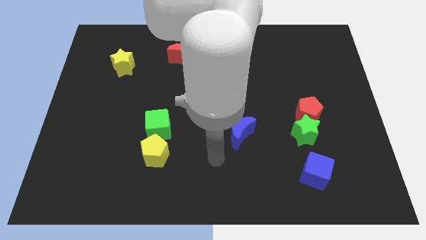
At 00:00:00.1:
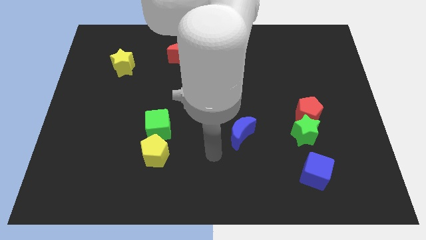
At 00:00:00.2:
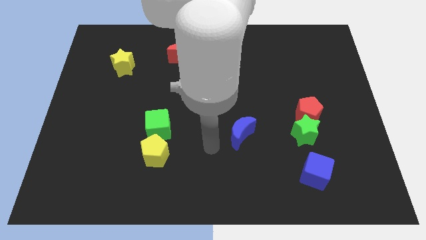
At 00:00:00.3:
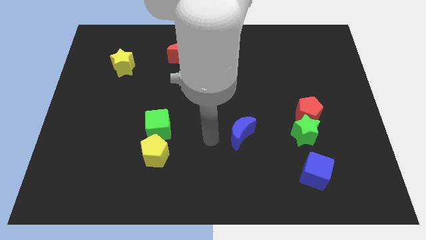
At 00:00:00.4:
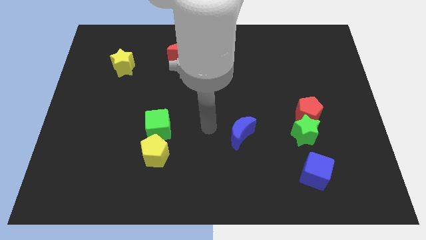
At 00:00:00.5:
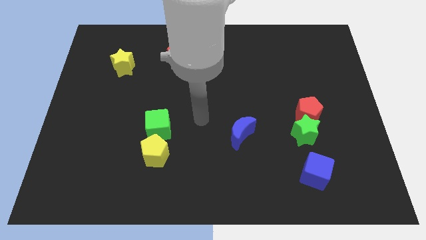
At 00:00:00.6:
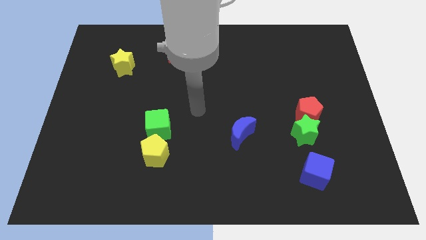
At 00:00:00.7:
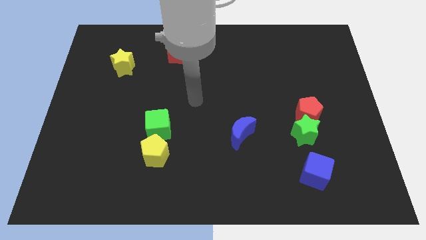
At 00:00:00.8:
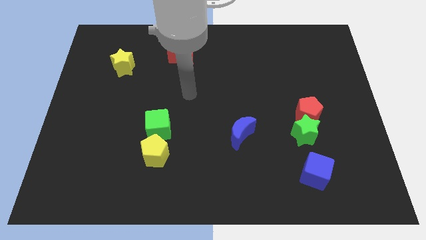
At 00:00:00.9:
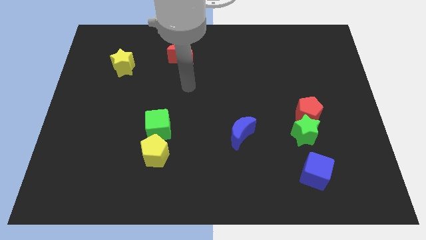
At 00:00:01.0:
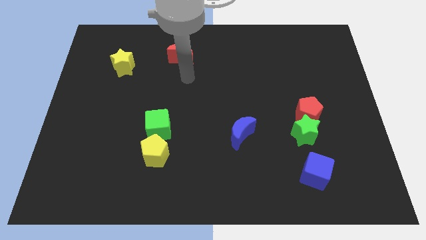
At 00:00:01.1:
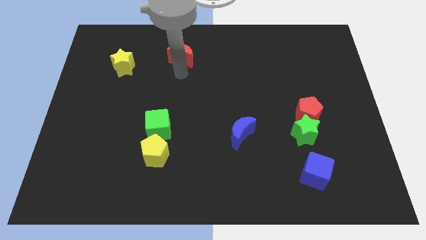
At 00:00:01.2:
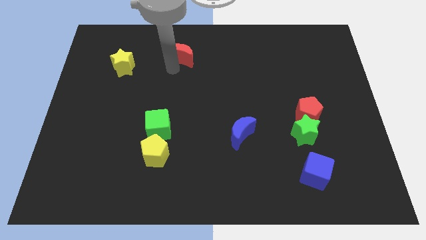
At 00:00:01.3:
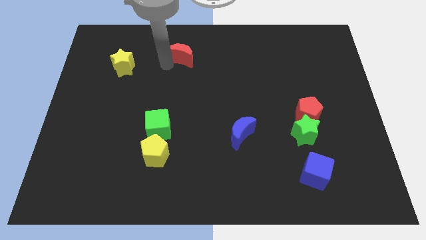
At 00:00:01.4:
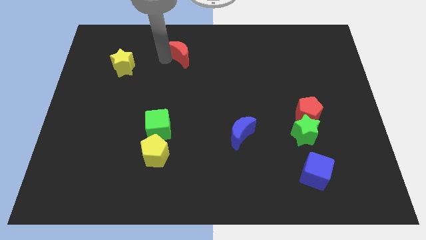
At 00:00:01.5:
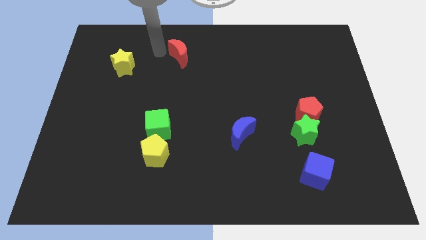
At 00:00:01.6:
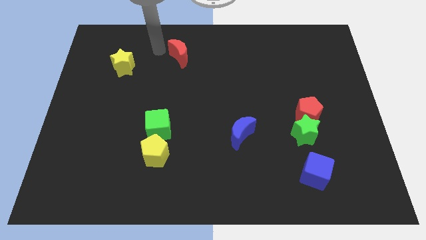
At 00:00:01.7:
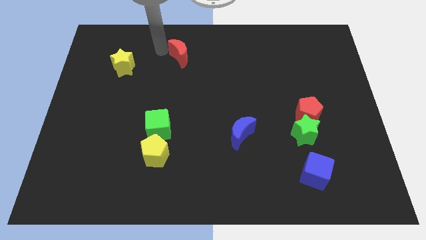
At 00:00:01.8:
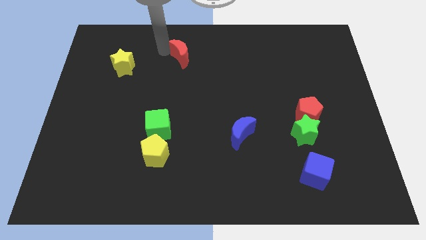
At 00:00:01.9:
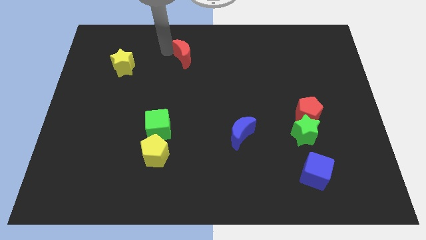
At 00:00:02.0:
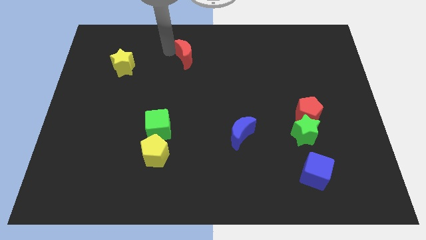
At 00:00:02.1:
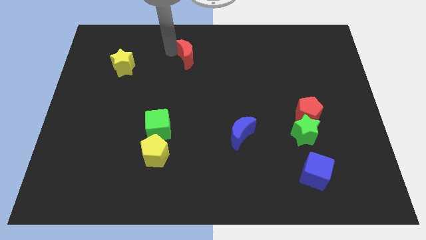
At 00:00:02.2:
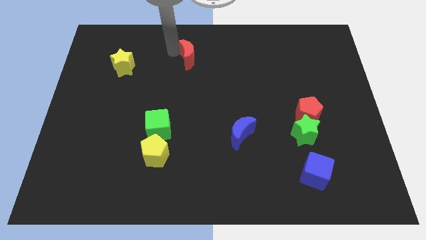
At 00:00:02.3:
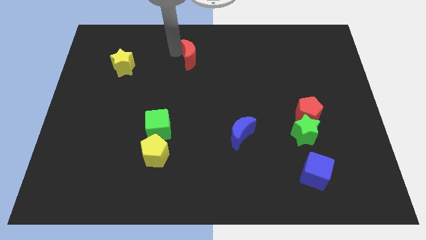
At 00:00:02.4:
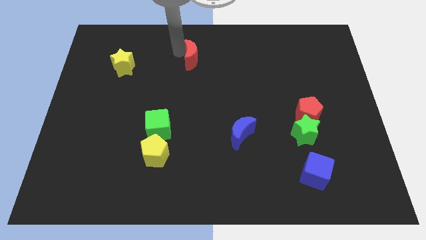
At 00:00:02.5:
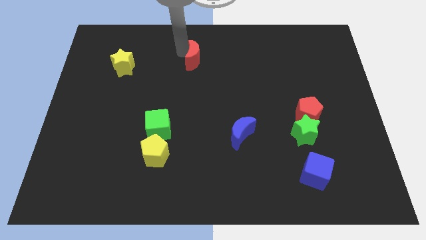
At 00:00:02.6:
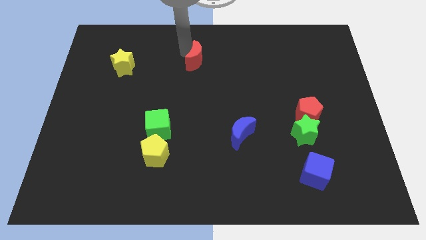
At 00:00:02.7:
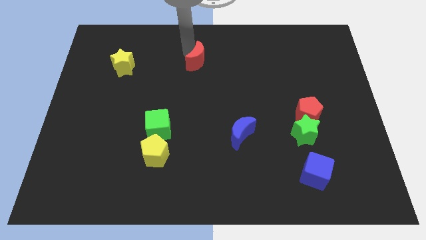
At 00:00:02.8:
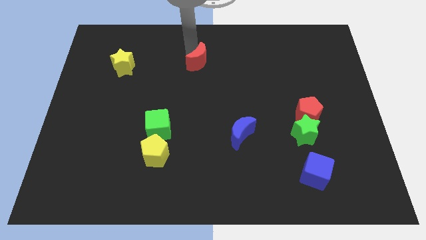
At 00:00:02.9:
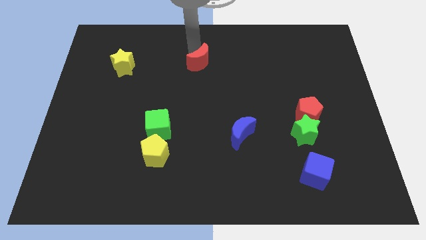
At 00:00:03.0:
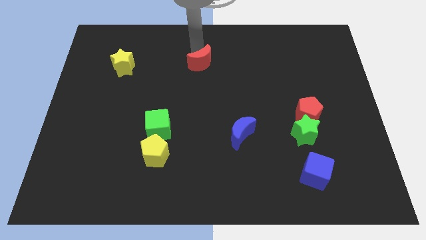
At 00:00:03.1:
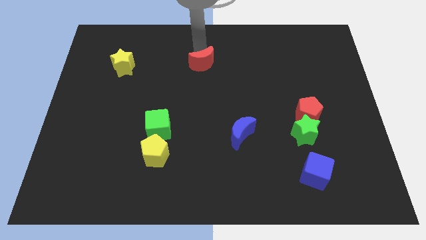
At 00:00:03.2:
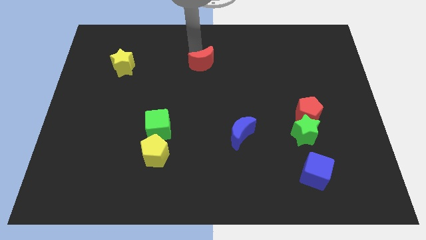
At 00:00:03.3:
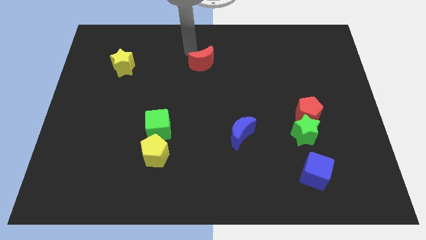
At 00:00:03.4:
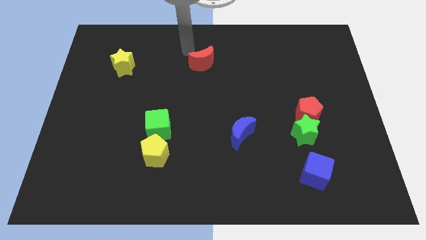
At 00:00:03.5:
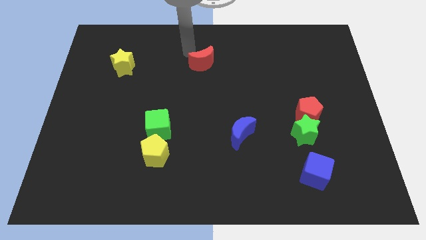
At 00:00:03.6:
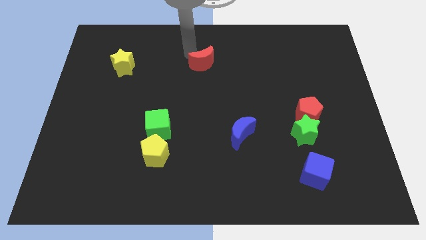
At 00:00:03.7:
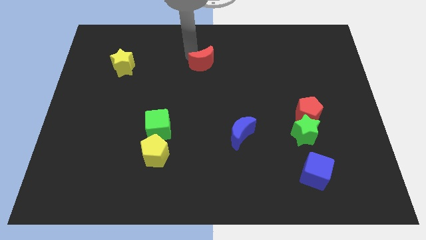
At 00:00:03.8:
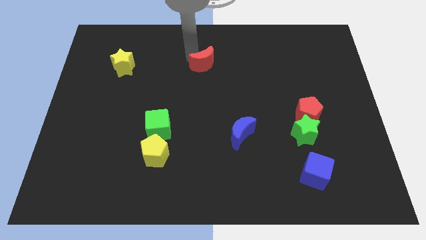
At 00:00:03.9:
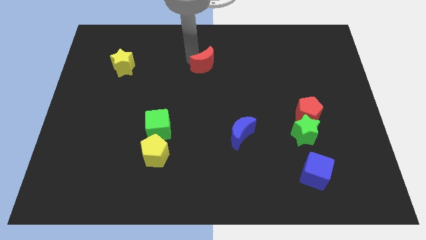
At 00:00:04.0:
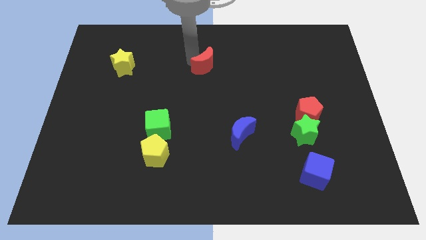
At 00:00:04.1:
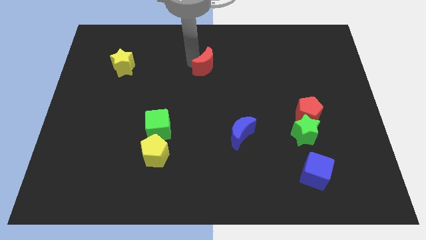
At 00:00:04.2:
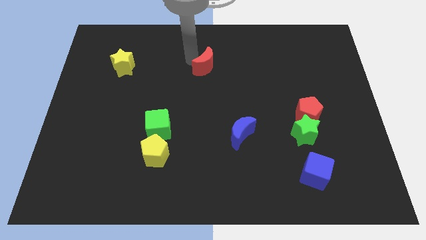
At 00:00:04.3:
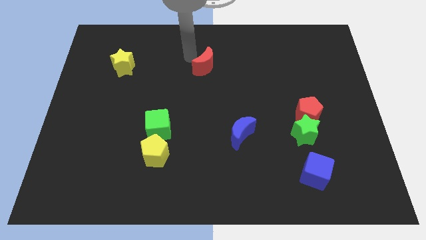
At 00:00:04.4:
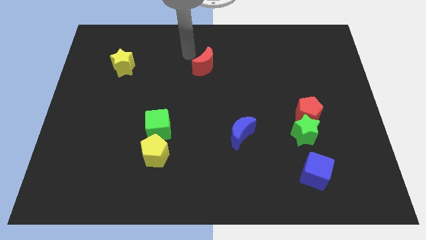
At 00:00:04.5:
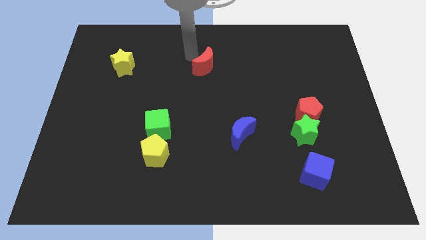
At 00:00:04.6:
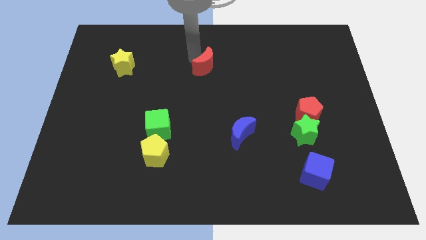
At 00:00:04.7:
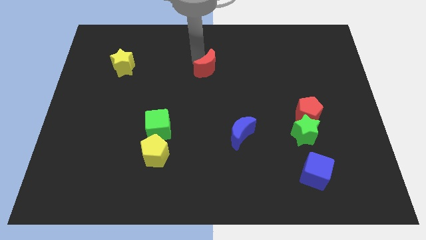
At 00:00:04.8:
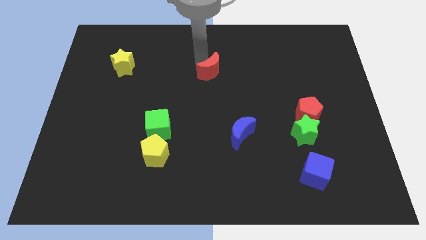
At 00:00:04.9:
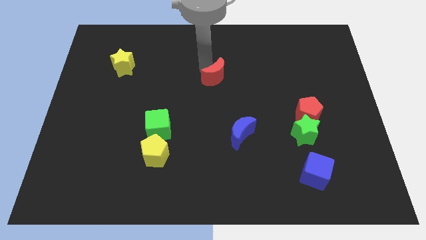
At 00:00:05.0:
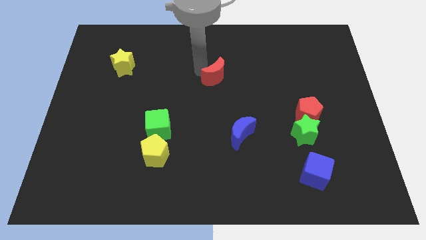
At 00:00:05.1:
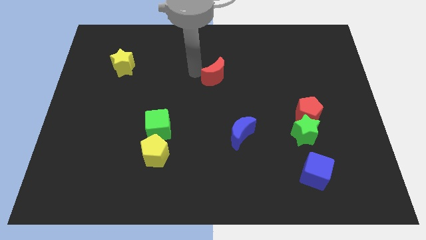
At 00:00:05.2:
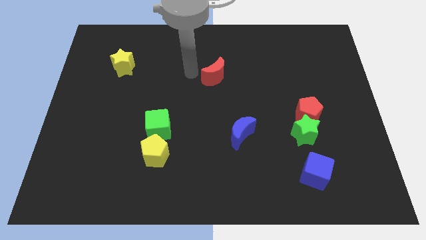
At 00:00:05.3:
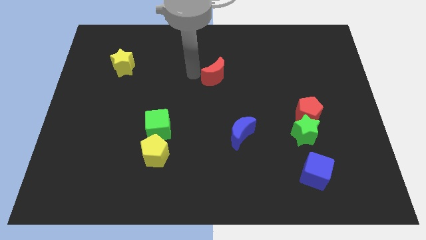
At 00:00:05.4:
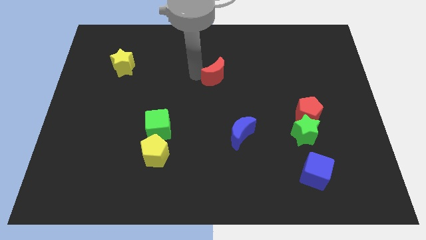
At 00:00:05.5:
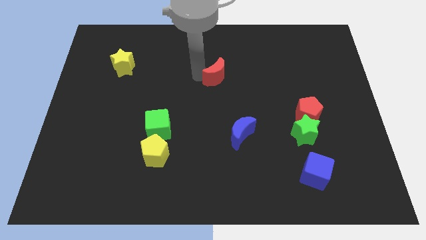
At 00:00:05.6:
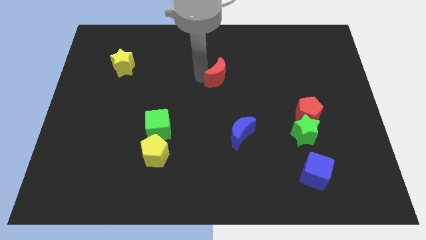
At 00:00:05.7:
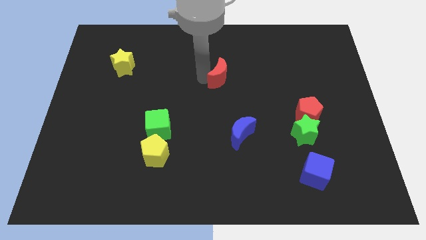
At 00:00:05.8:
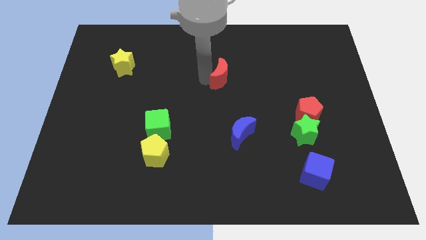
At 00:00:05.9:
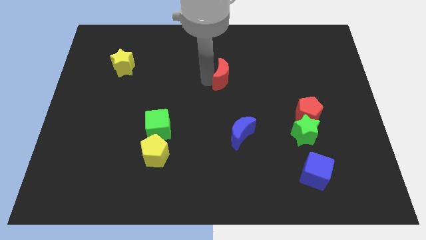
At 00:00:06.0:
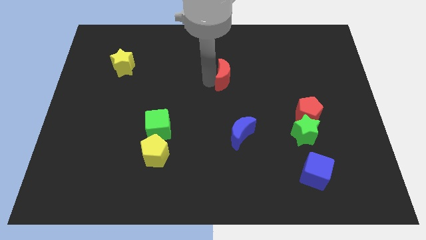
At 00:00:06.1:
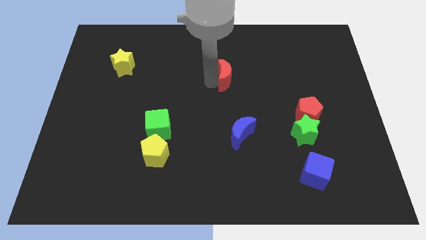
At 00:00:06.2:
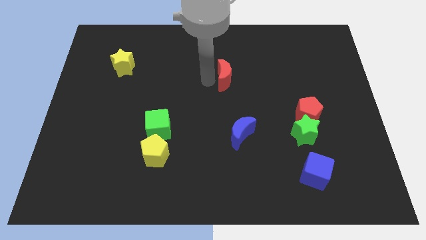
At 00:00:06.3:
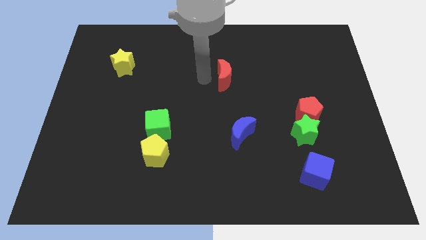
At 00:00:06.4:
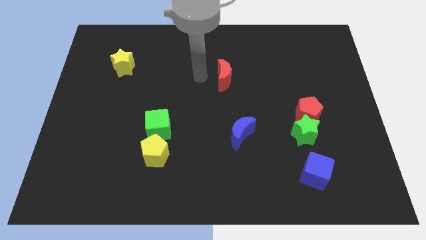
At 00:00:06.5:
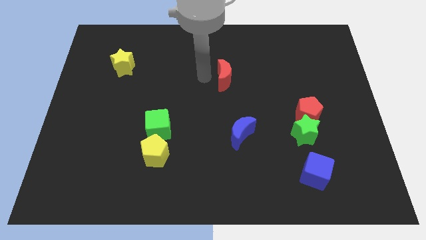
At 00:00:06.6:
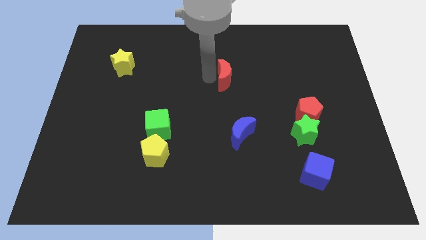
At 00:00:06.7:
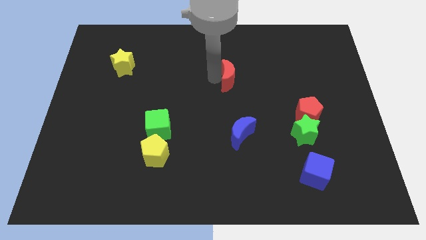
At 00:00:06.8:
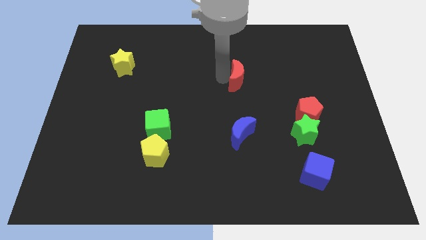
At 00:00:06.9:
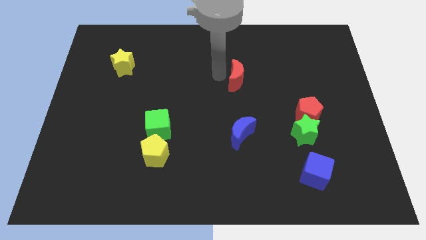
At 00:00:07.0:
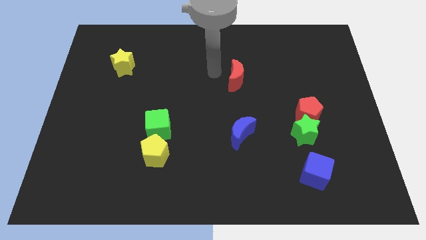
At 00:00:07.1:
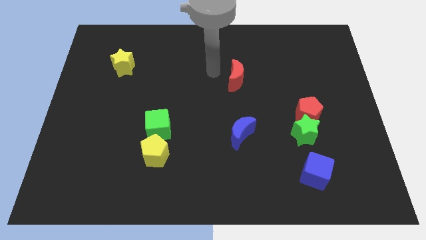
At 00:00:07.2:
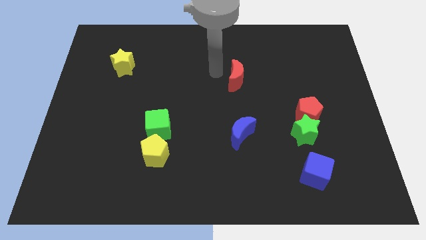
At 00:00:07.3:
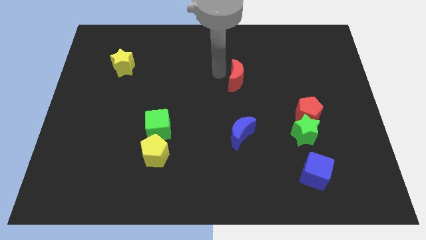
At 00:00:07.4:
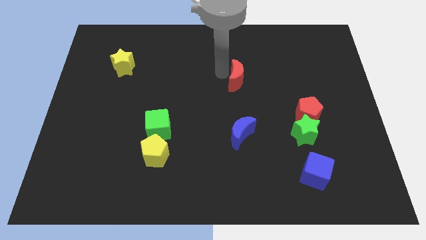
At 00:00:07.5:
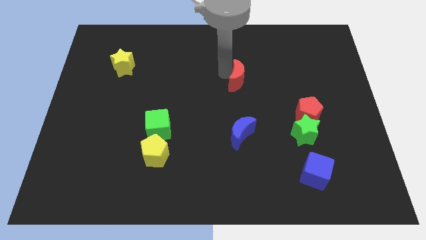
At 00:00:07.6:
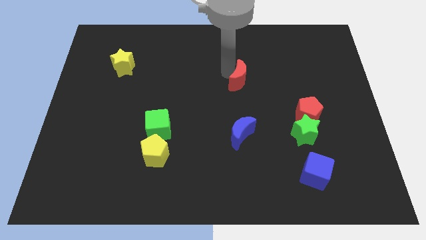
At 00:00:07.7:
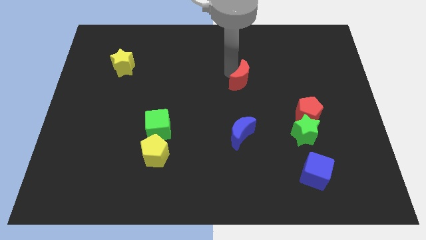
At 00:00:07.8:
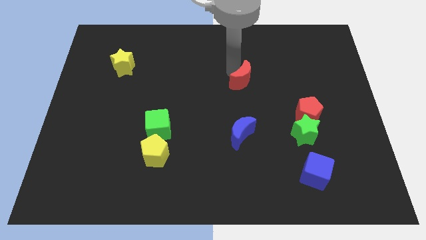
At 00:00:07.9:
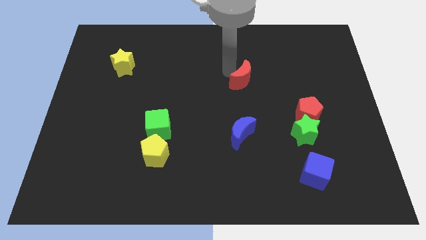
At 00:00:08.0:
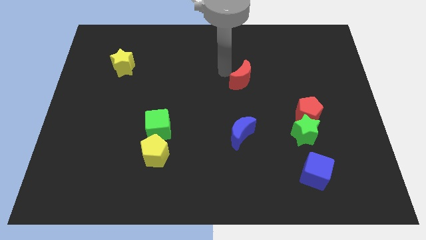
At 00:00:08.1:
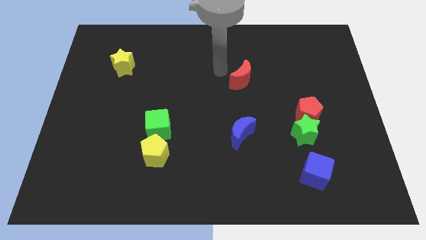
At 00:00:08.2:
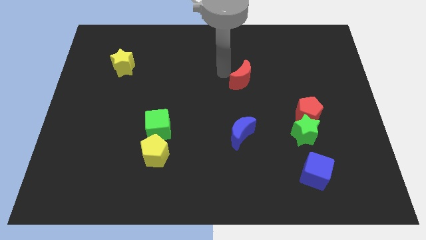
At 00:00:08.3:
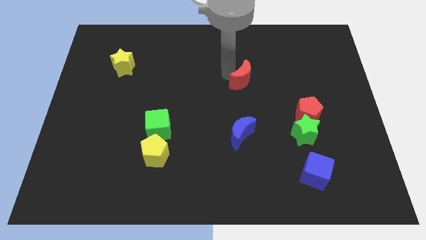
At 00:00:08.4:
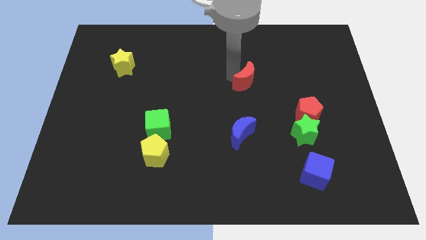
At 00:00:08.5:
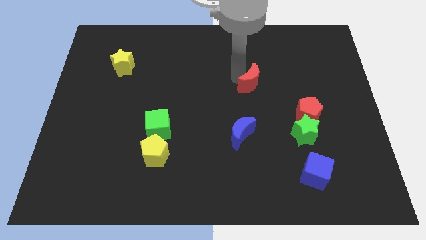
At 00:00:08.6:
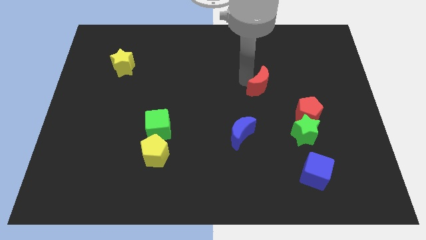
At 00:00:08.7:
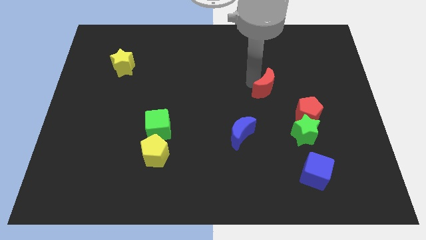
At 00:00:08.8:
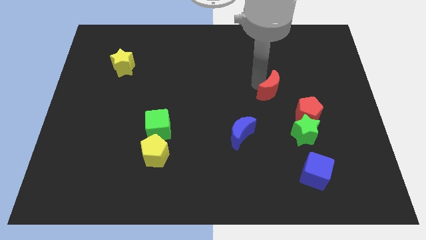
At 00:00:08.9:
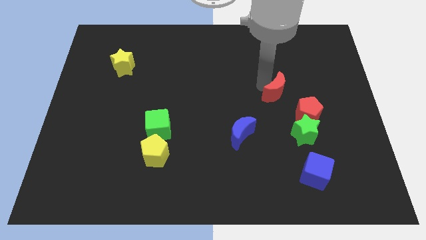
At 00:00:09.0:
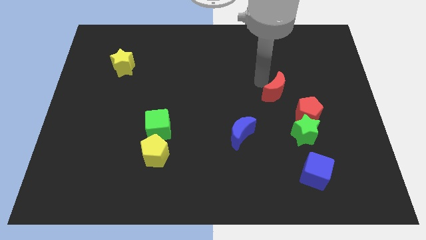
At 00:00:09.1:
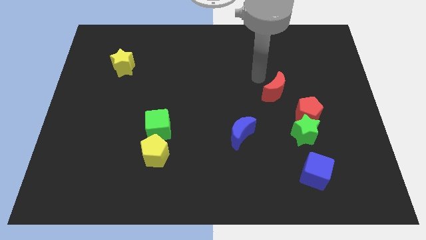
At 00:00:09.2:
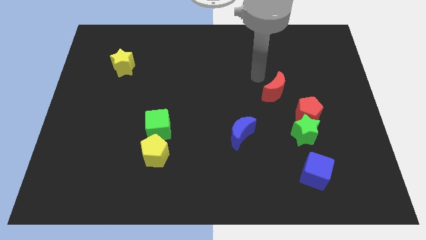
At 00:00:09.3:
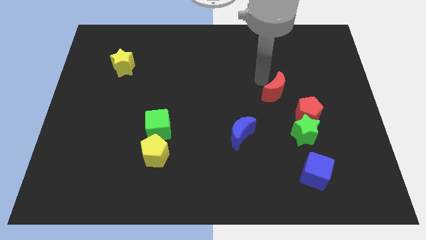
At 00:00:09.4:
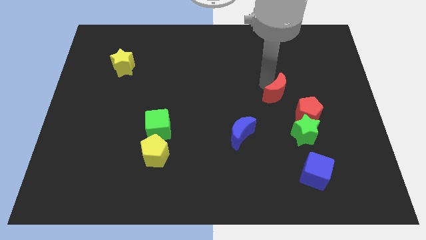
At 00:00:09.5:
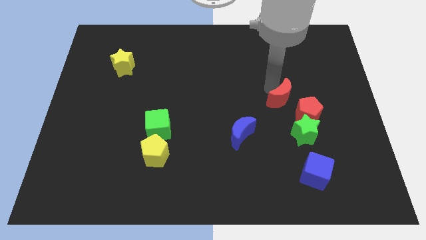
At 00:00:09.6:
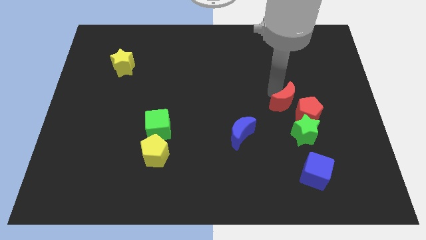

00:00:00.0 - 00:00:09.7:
slide the red moon next to the red pentagon
